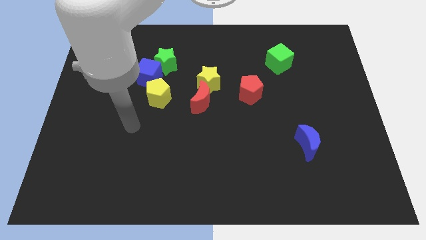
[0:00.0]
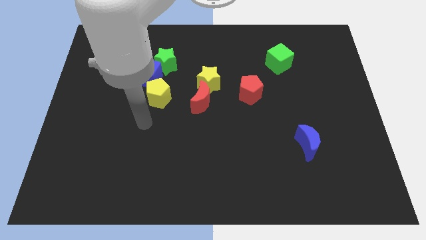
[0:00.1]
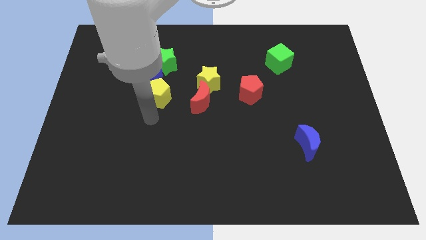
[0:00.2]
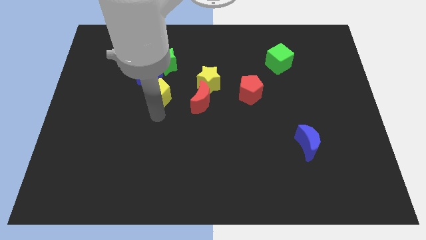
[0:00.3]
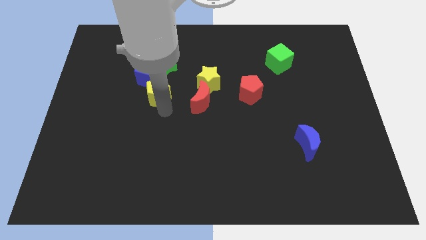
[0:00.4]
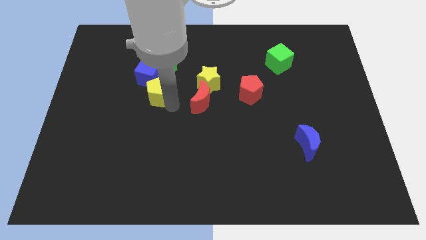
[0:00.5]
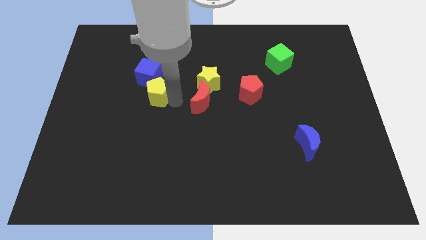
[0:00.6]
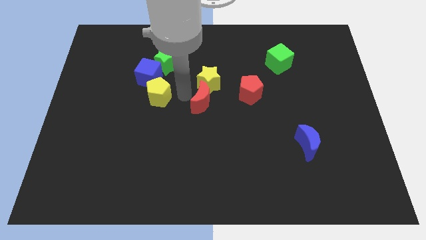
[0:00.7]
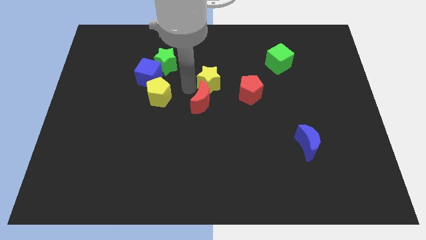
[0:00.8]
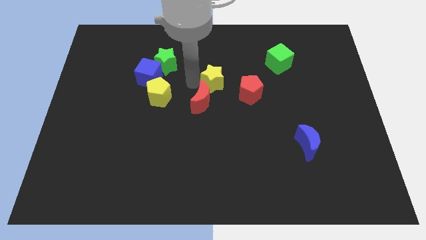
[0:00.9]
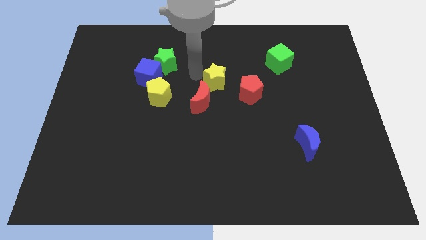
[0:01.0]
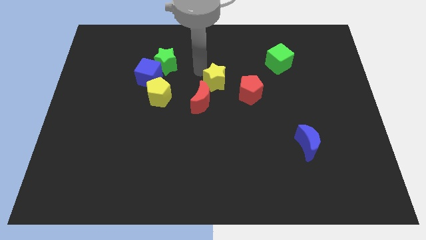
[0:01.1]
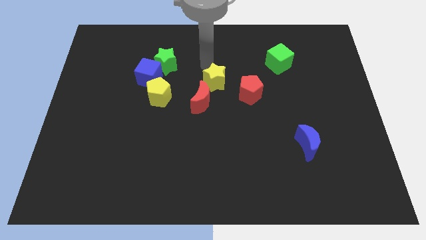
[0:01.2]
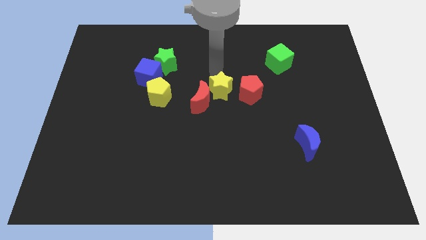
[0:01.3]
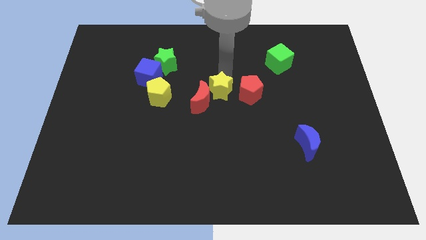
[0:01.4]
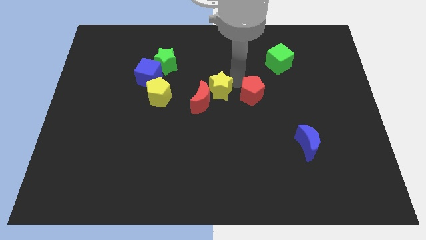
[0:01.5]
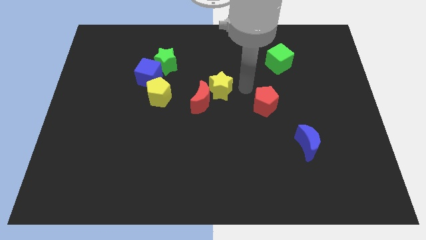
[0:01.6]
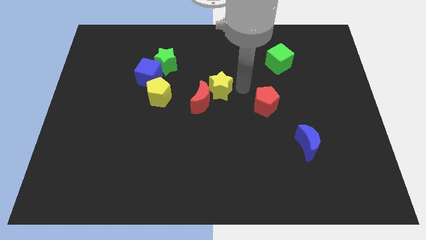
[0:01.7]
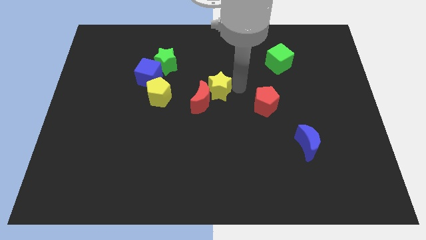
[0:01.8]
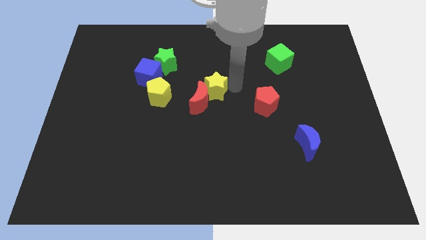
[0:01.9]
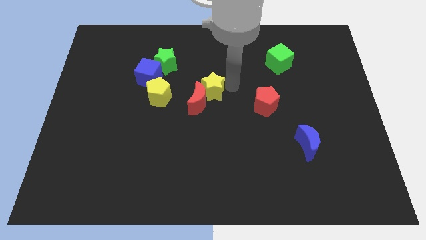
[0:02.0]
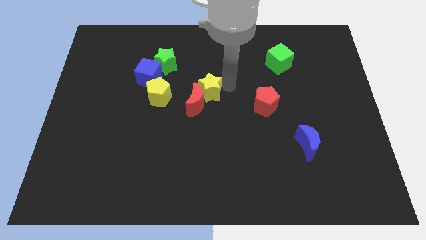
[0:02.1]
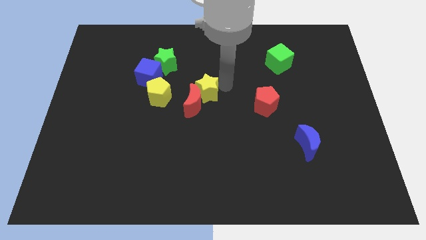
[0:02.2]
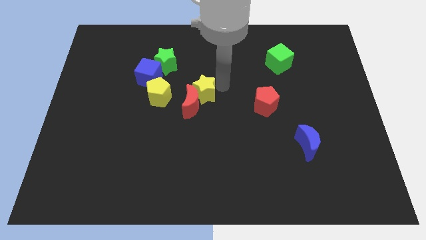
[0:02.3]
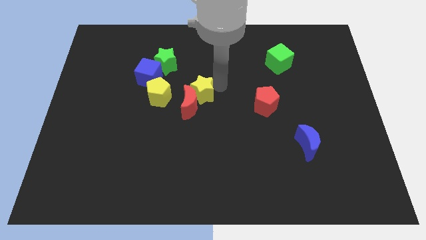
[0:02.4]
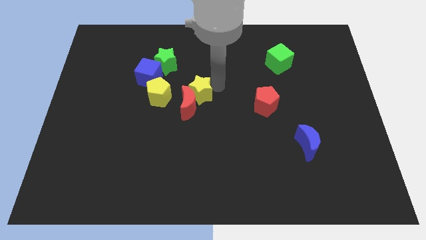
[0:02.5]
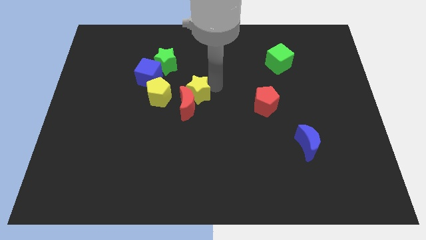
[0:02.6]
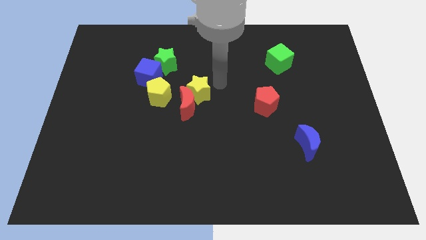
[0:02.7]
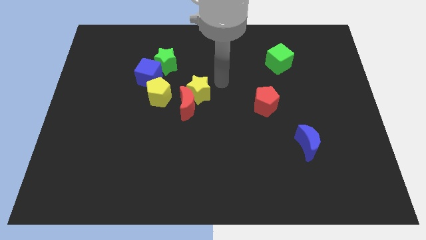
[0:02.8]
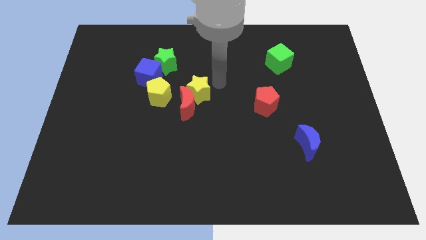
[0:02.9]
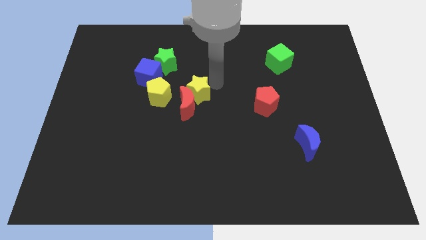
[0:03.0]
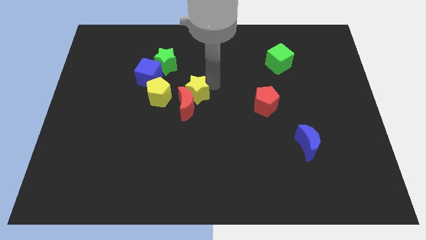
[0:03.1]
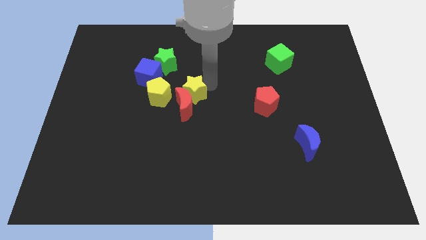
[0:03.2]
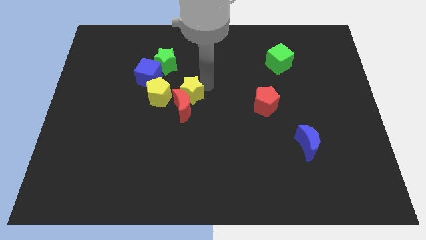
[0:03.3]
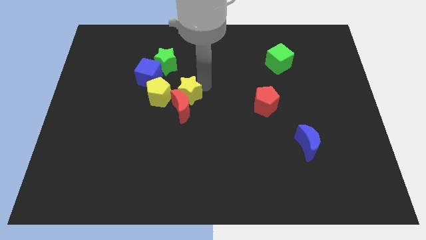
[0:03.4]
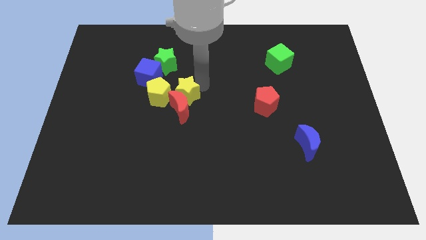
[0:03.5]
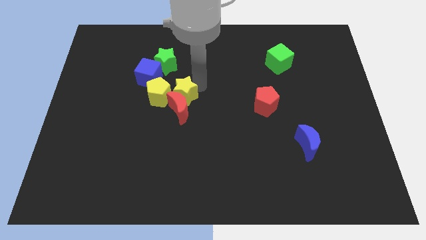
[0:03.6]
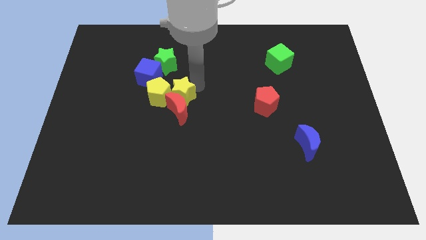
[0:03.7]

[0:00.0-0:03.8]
slightly move the yellow star down and then left

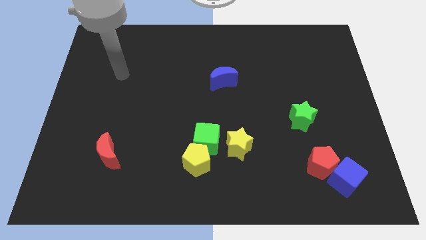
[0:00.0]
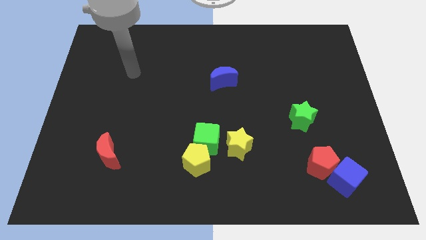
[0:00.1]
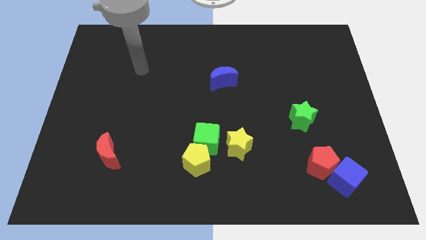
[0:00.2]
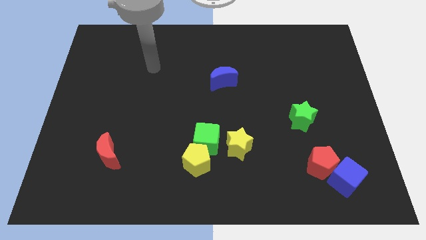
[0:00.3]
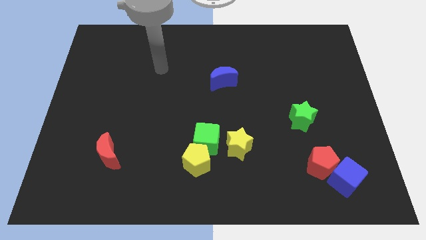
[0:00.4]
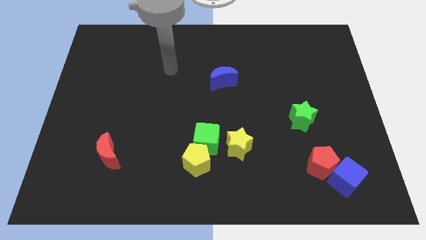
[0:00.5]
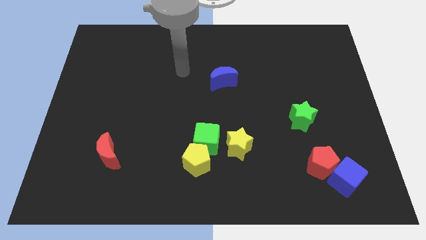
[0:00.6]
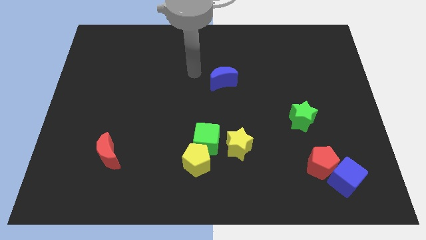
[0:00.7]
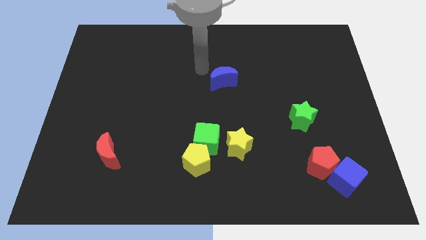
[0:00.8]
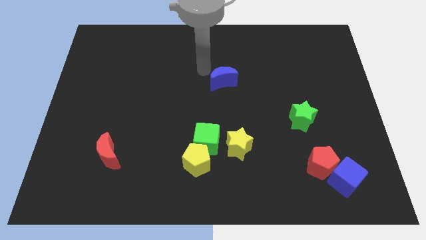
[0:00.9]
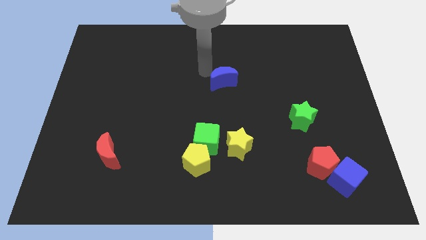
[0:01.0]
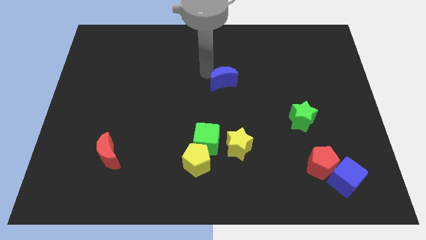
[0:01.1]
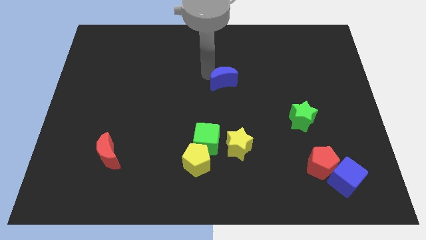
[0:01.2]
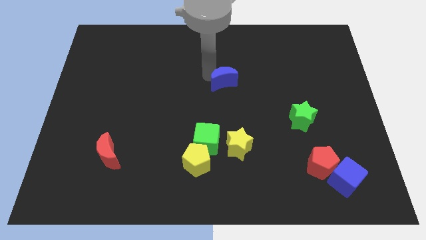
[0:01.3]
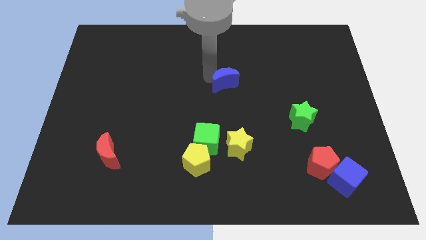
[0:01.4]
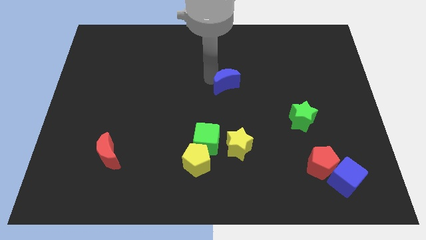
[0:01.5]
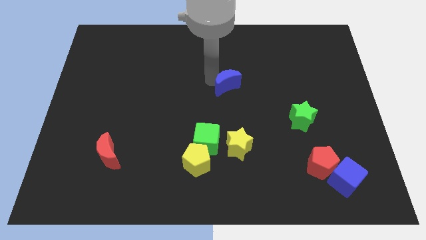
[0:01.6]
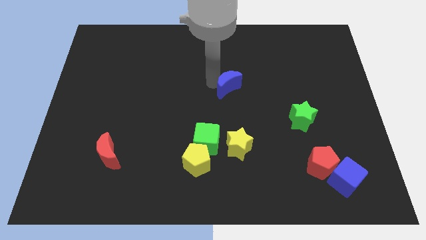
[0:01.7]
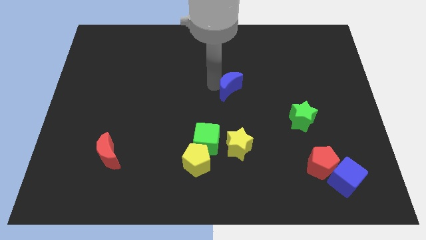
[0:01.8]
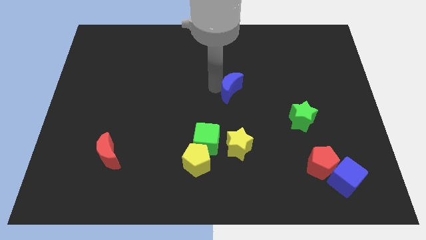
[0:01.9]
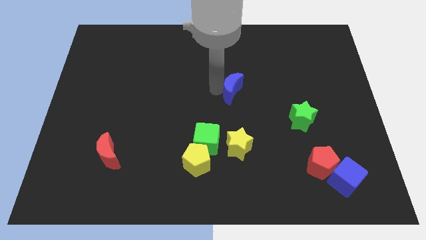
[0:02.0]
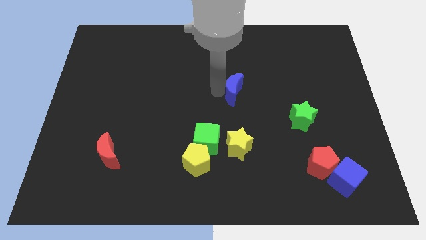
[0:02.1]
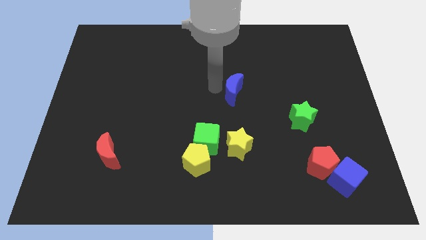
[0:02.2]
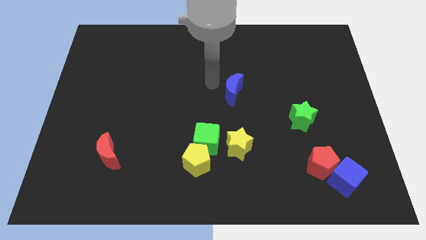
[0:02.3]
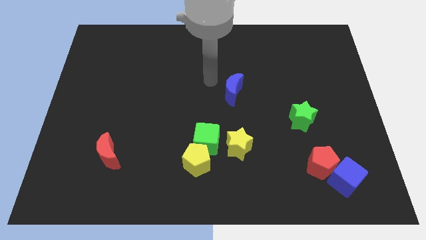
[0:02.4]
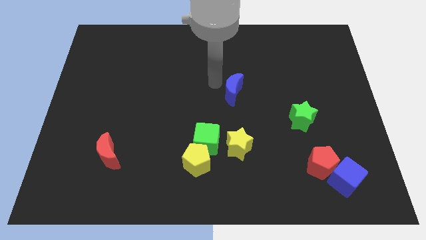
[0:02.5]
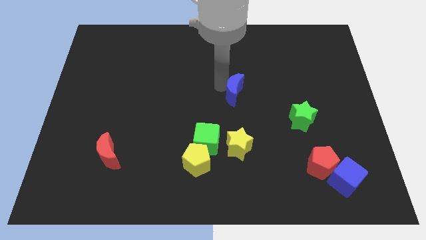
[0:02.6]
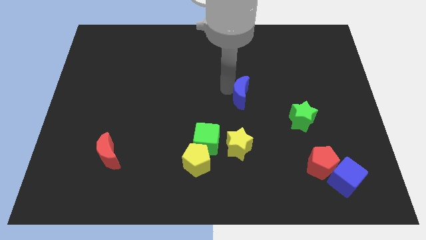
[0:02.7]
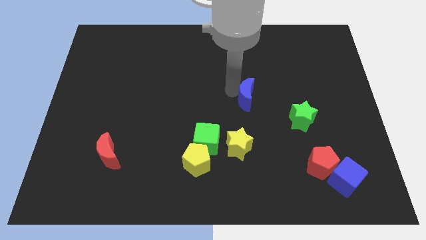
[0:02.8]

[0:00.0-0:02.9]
move the blue moon downwards and to the right a little

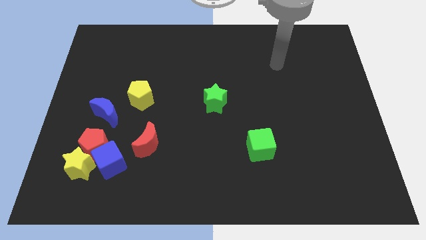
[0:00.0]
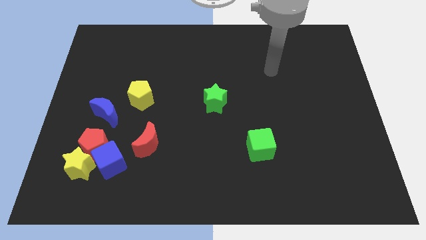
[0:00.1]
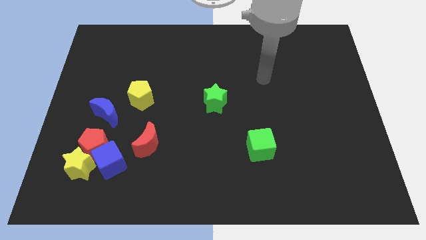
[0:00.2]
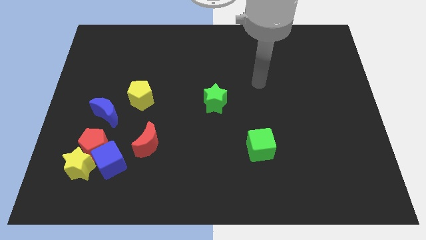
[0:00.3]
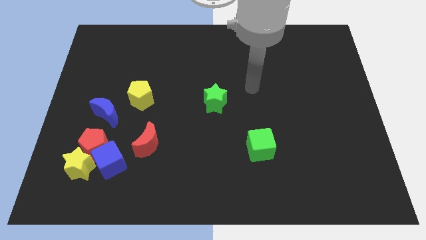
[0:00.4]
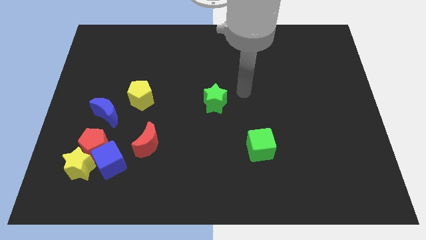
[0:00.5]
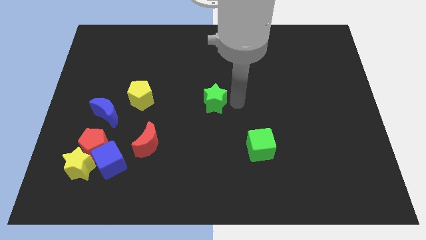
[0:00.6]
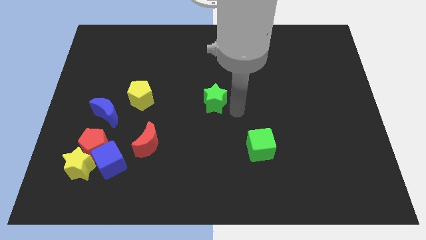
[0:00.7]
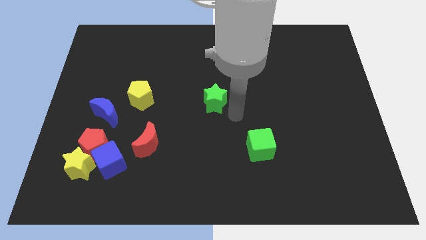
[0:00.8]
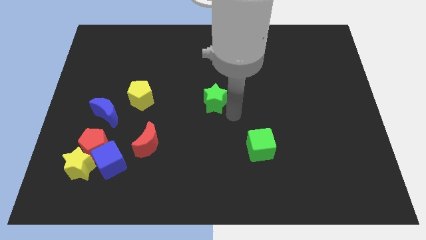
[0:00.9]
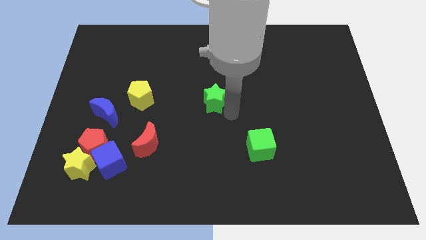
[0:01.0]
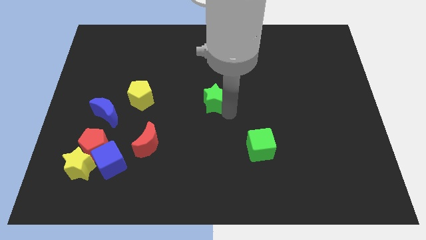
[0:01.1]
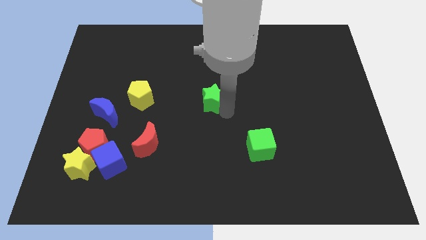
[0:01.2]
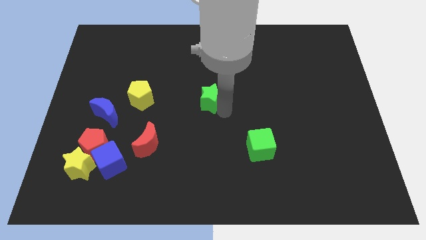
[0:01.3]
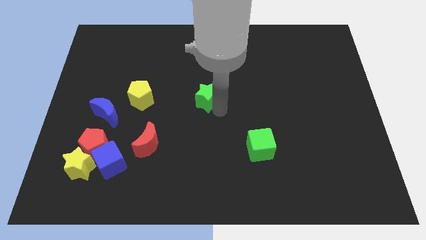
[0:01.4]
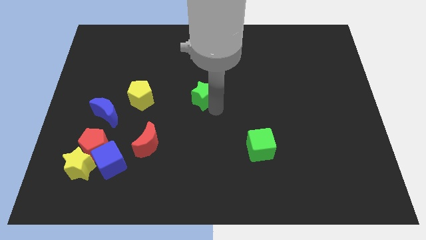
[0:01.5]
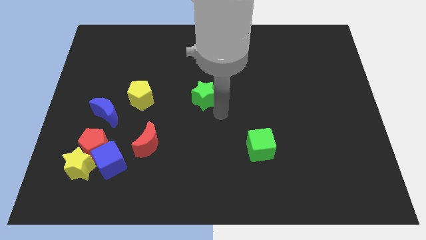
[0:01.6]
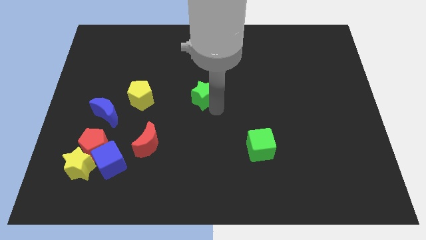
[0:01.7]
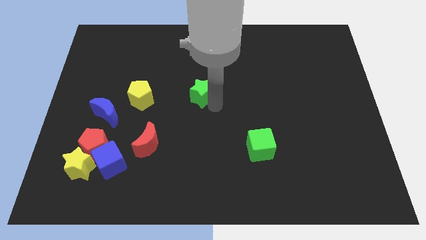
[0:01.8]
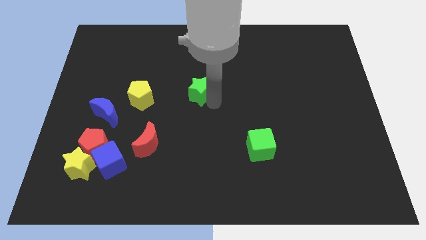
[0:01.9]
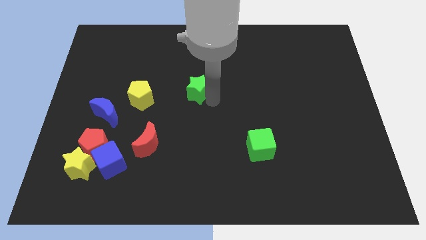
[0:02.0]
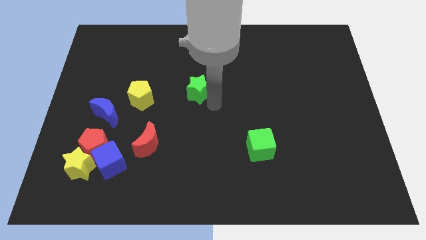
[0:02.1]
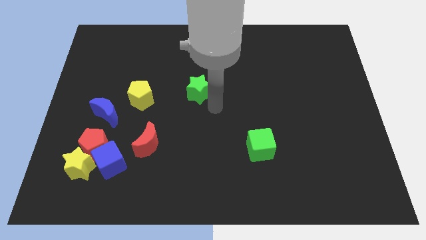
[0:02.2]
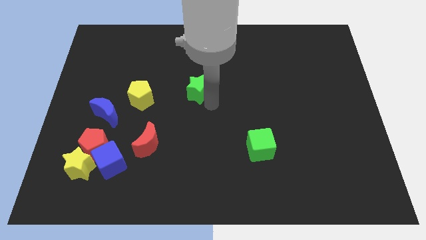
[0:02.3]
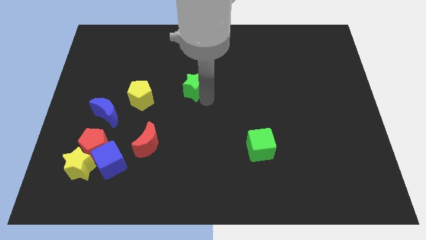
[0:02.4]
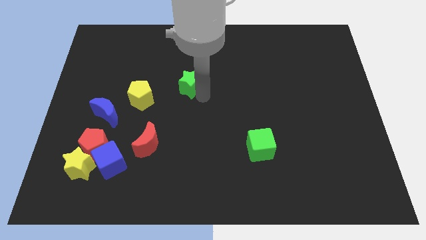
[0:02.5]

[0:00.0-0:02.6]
slide the green star a bit up and left
